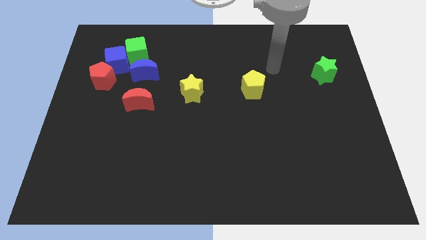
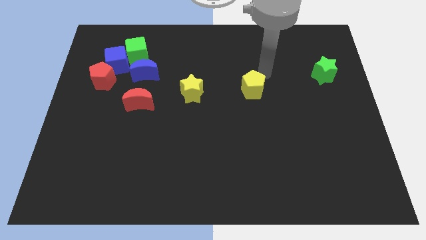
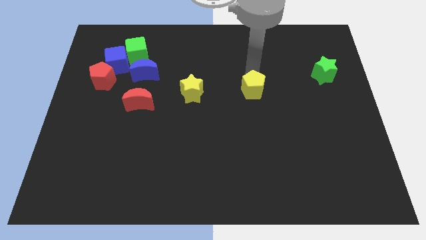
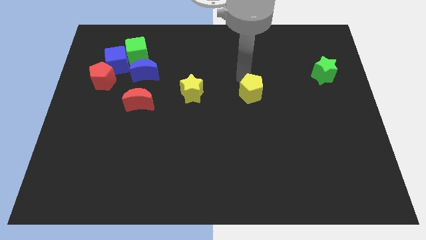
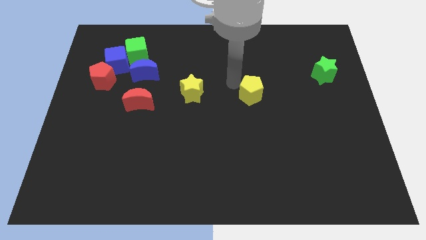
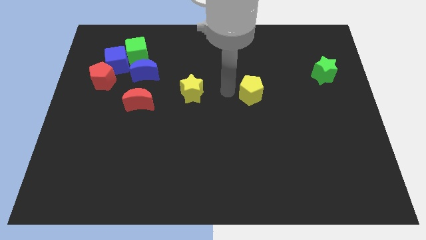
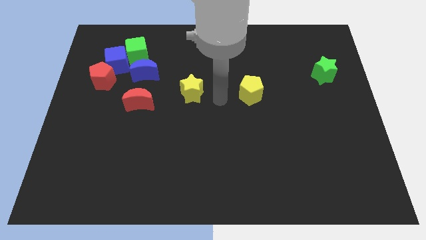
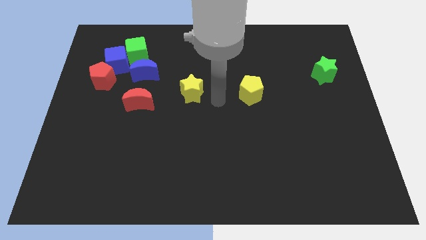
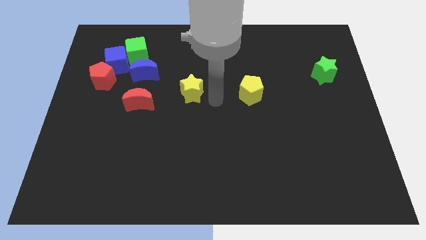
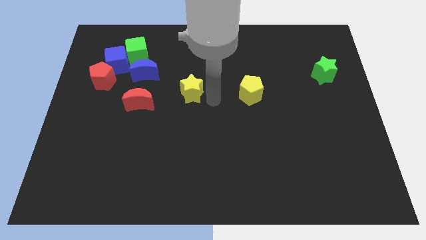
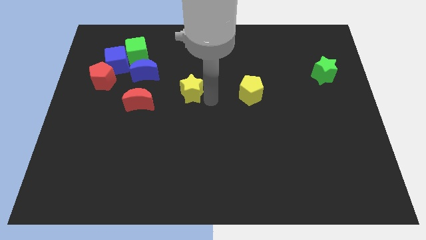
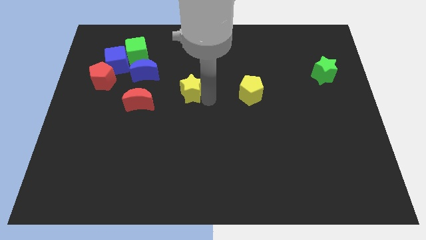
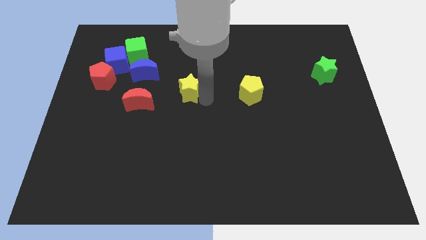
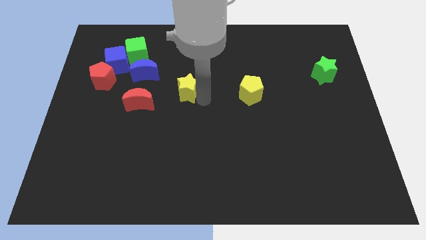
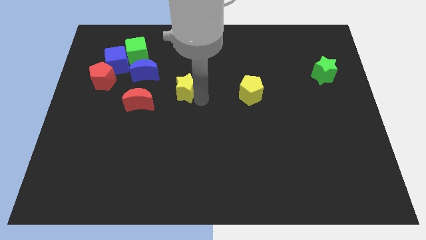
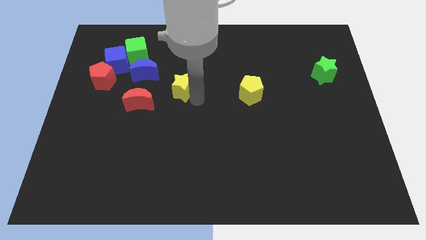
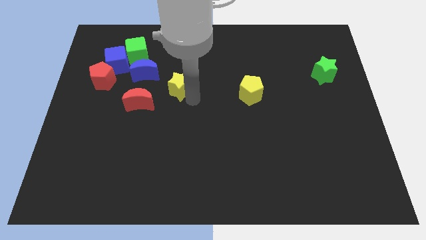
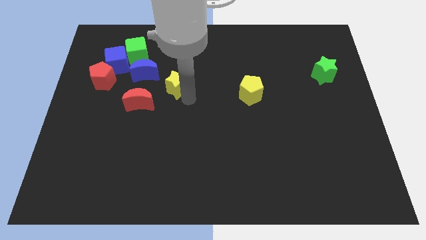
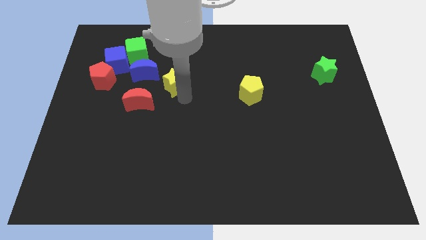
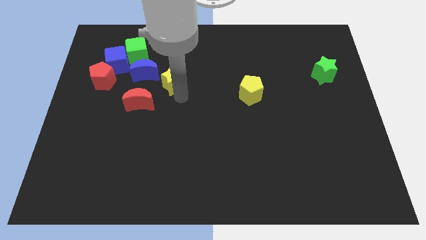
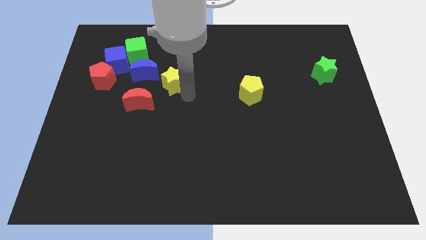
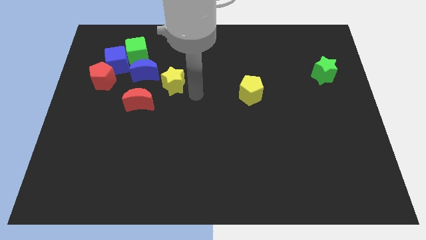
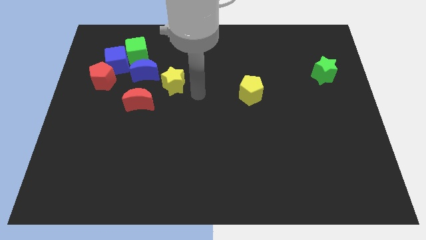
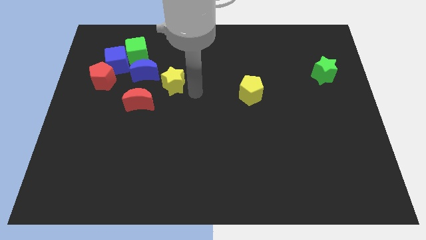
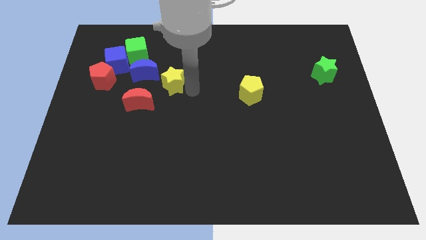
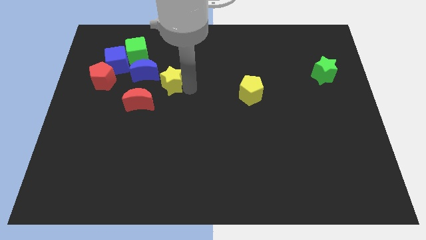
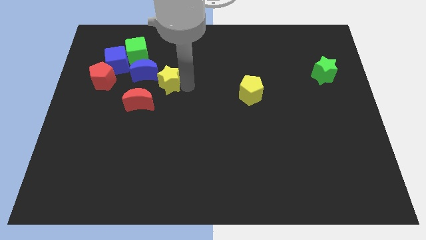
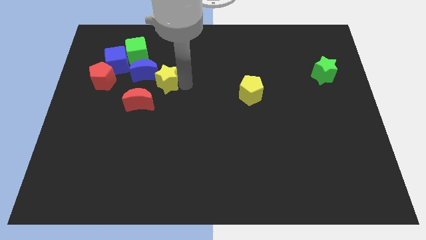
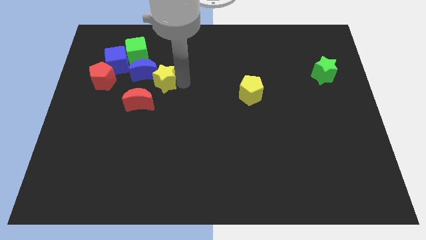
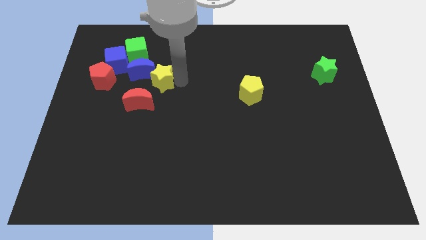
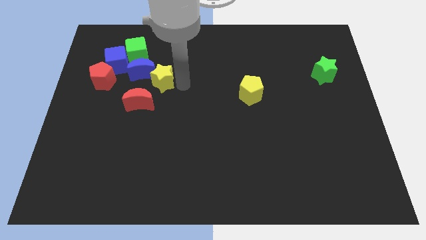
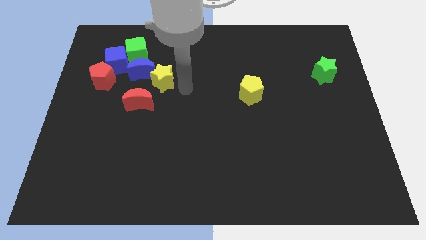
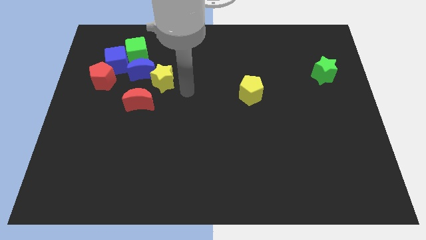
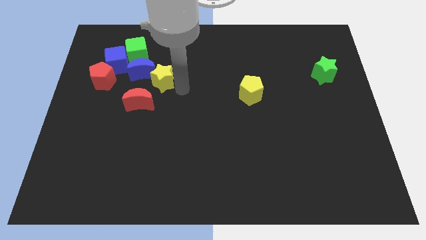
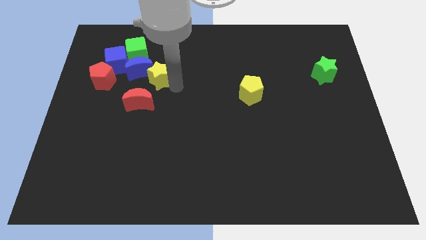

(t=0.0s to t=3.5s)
slide the yellow star next to the blue moon

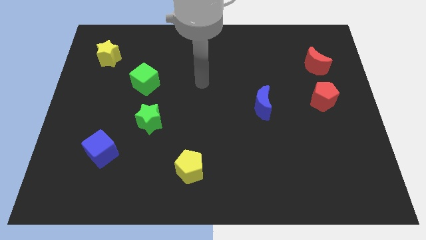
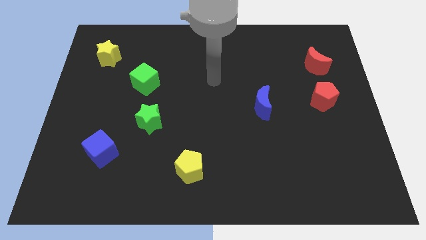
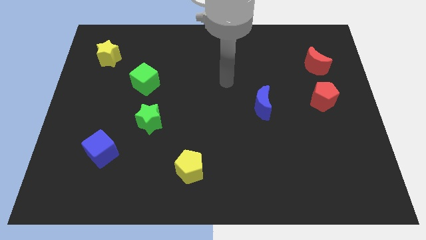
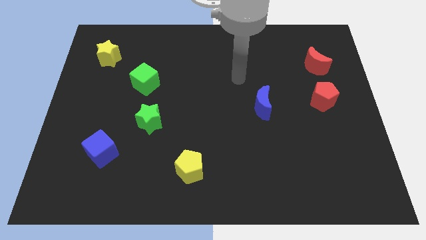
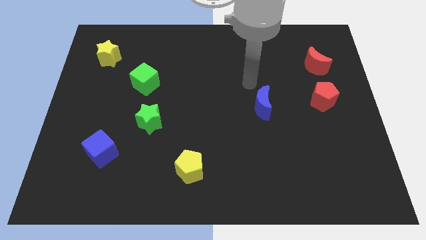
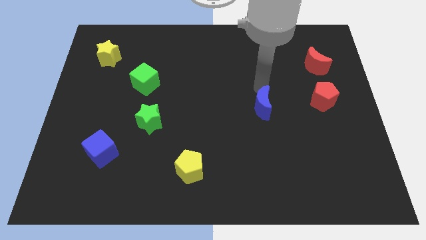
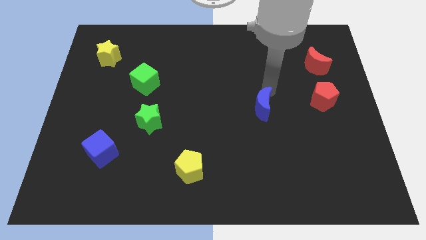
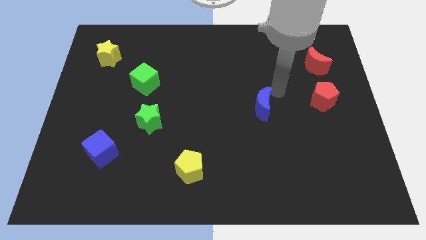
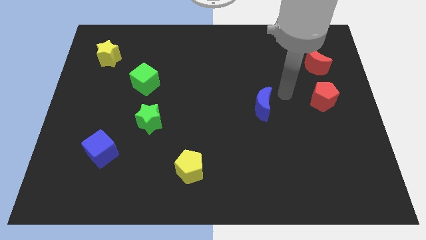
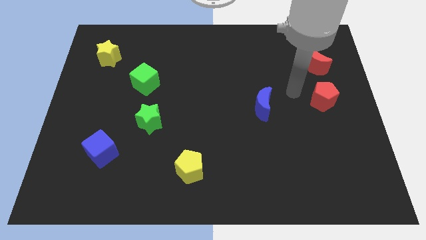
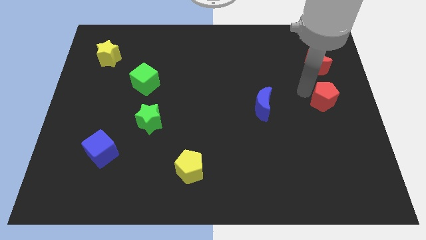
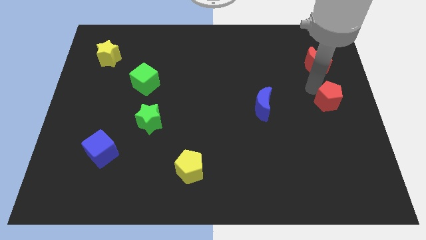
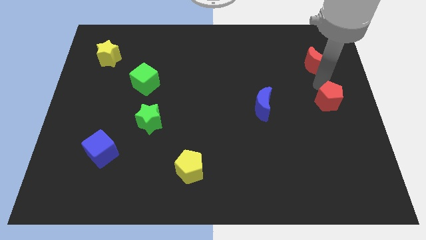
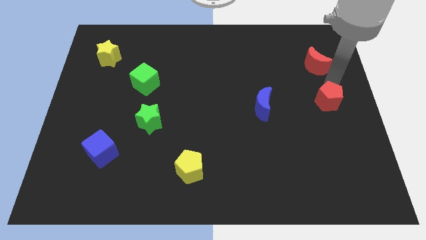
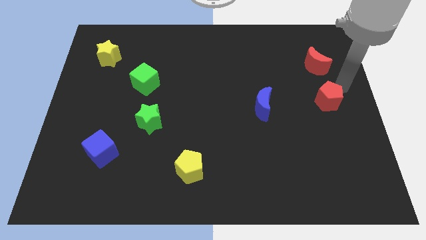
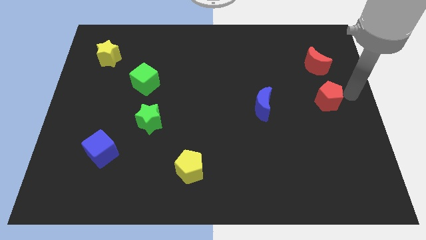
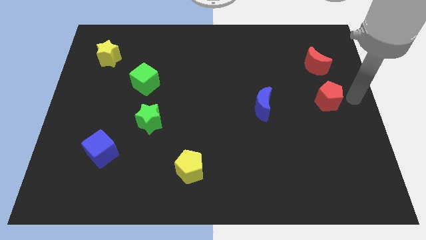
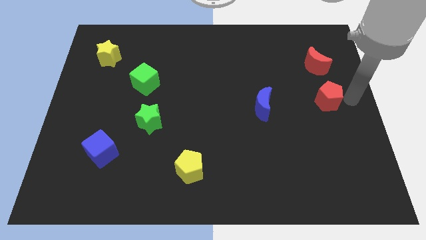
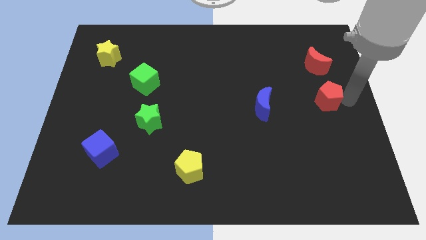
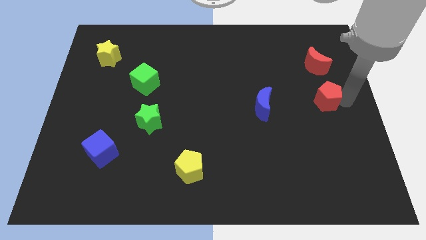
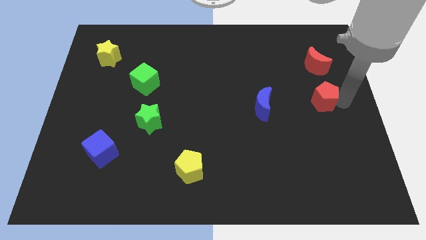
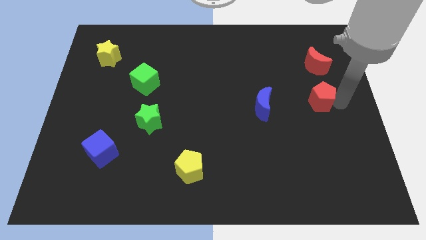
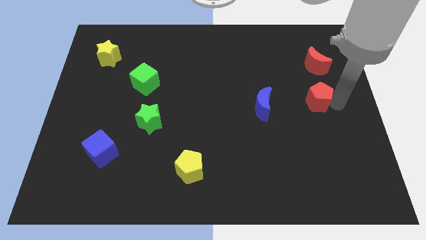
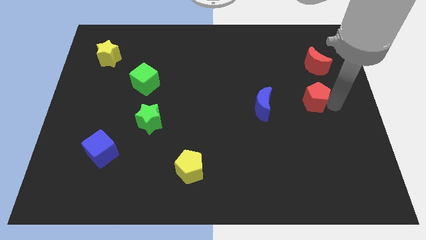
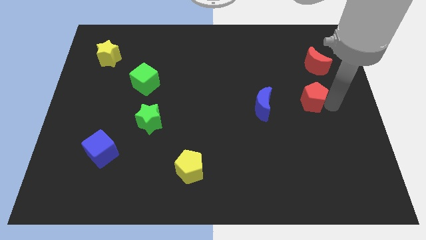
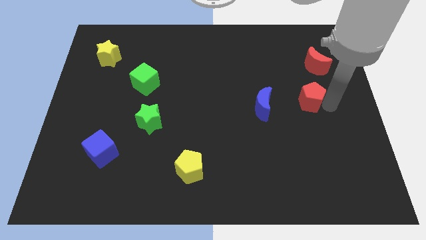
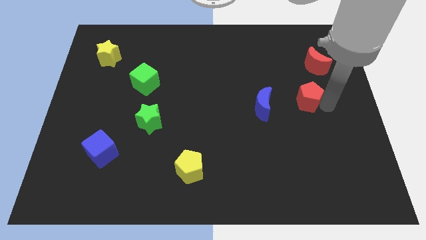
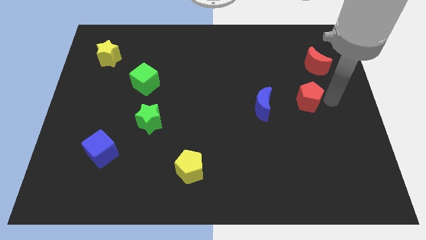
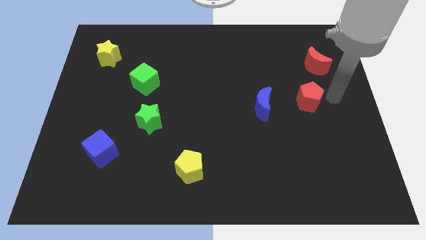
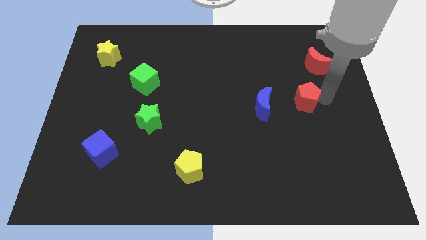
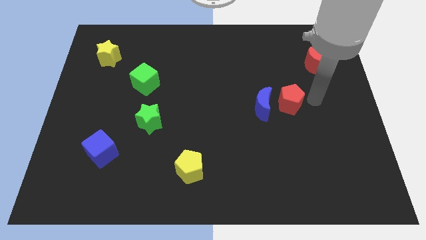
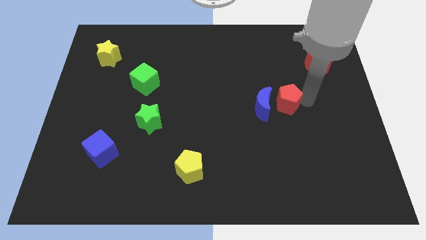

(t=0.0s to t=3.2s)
slide the red pentagon close to the blue moon

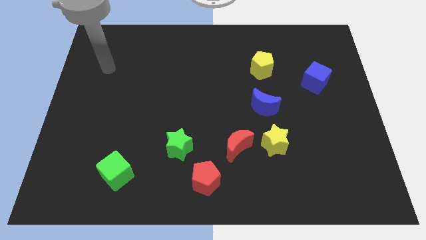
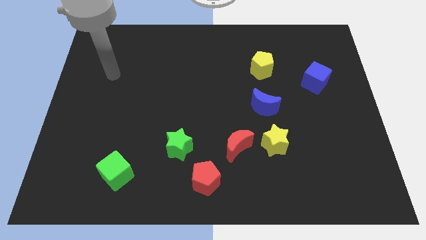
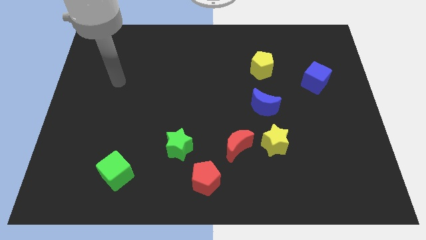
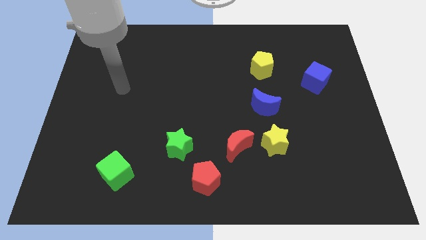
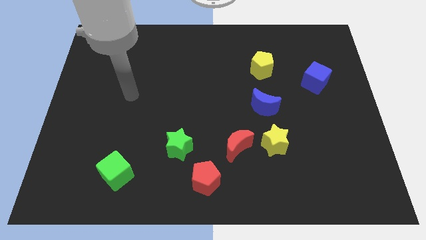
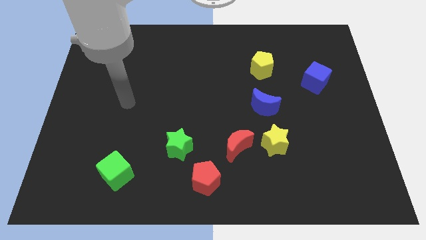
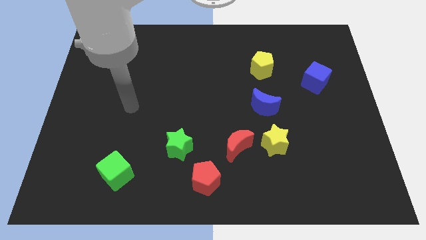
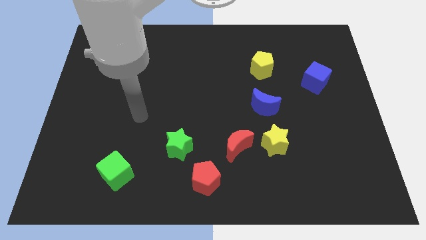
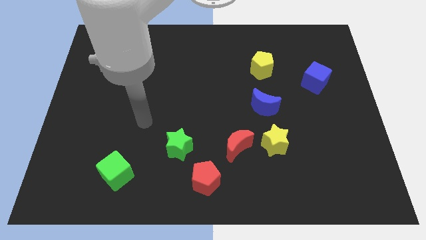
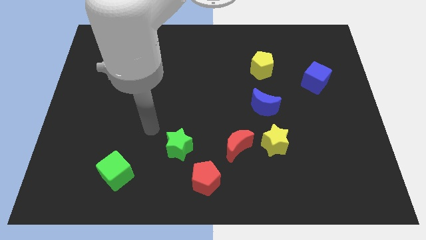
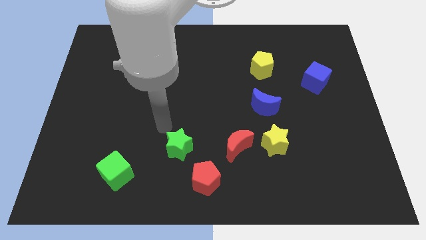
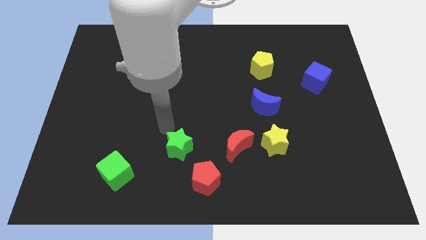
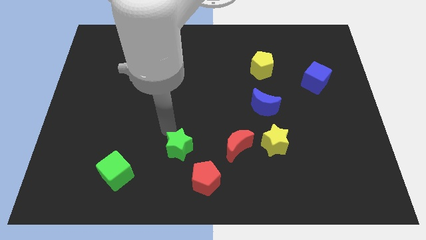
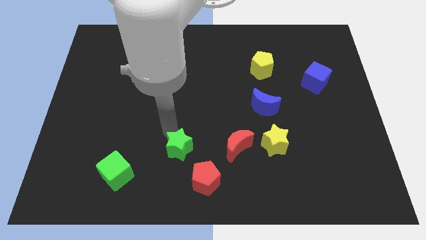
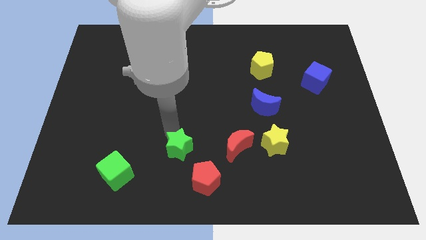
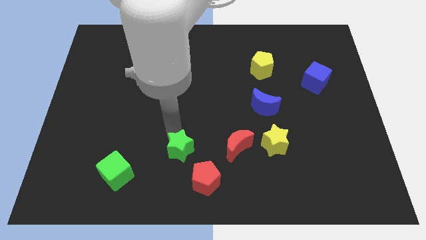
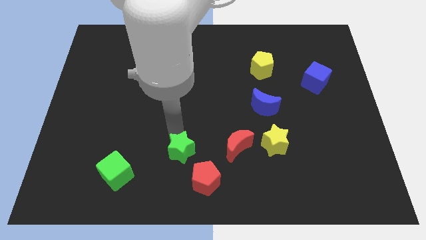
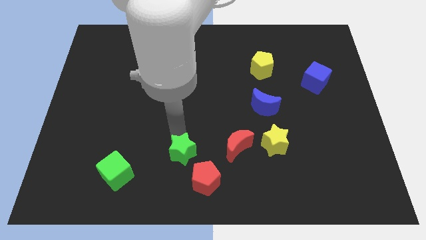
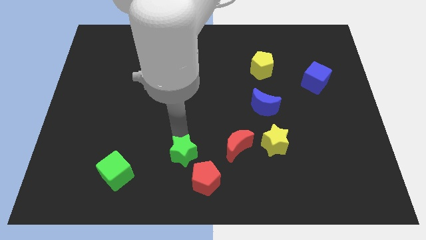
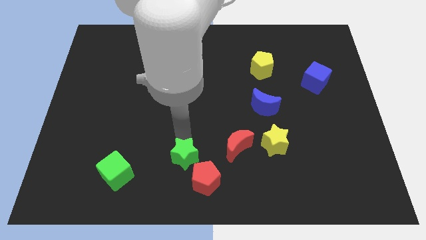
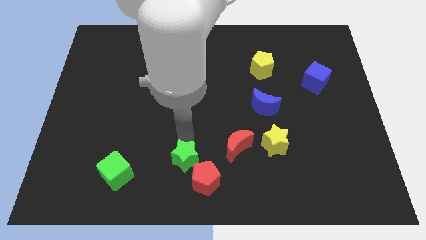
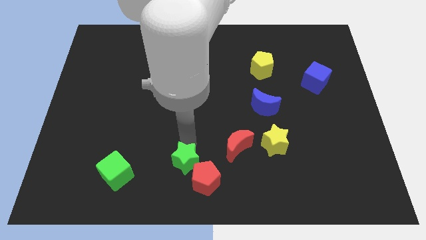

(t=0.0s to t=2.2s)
push the green star next to the red pentagon
